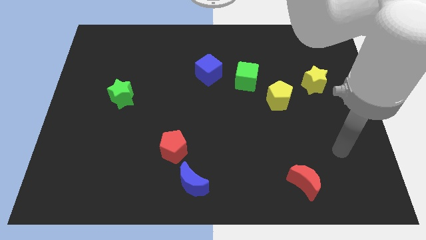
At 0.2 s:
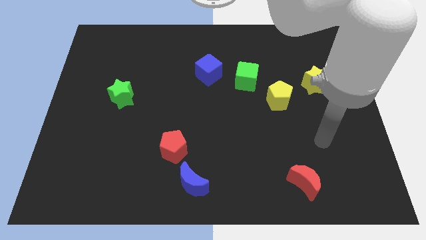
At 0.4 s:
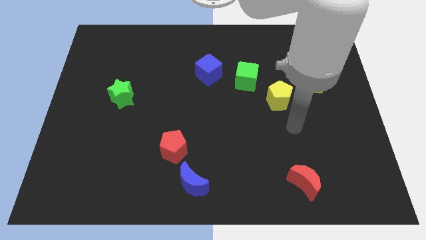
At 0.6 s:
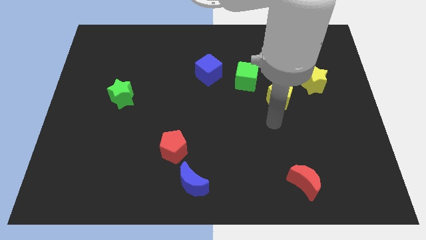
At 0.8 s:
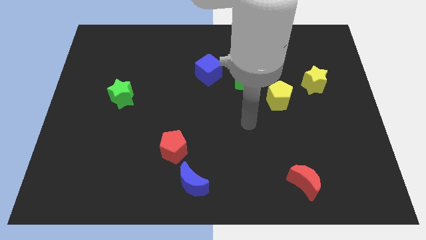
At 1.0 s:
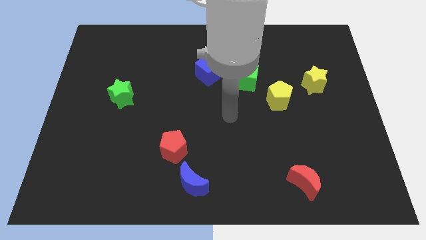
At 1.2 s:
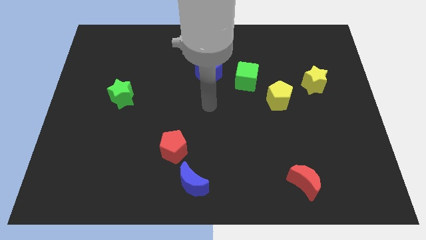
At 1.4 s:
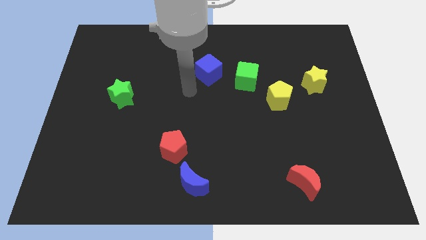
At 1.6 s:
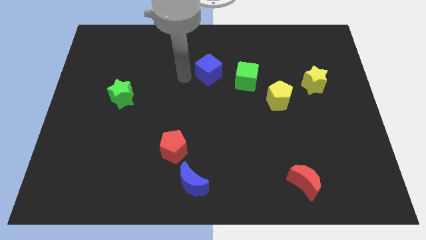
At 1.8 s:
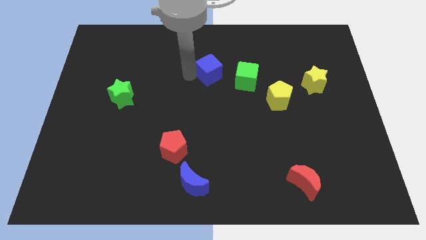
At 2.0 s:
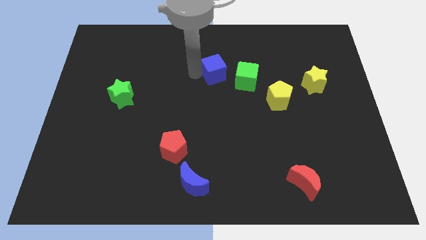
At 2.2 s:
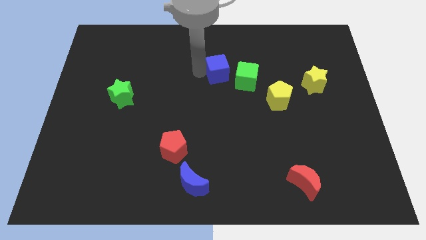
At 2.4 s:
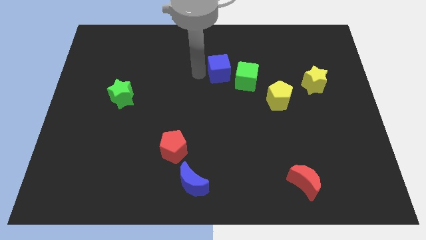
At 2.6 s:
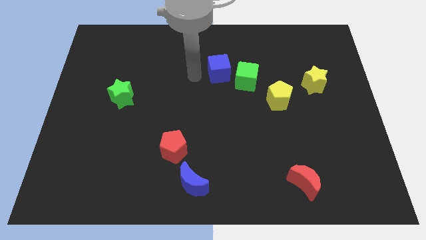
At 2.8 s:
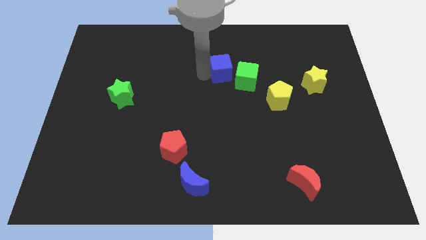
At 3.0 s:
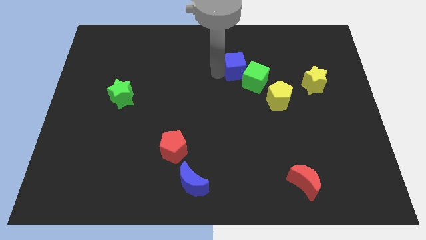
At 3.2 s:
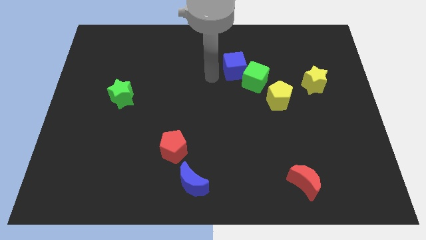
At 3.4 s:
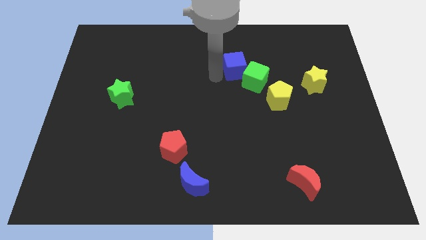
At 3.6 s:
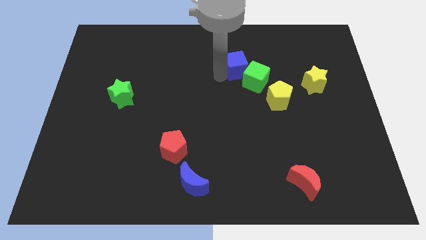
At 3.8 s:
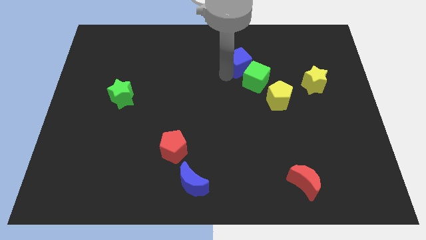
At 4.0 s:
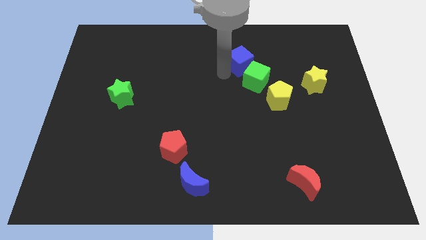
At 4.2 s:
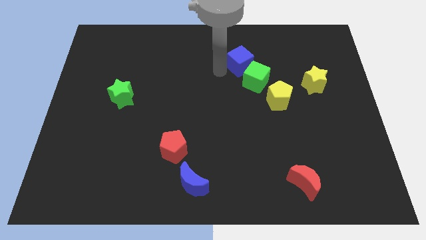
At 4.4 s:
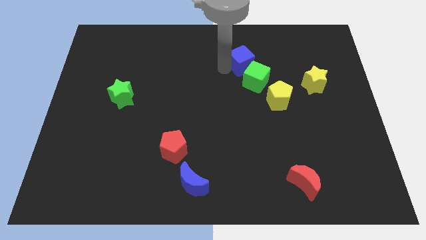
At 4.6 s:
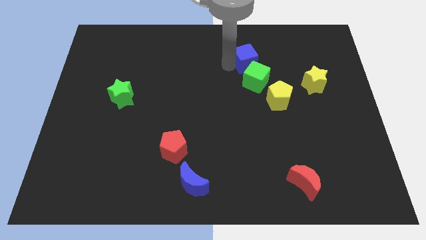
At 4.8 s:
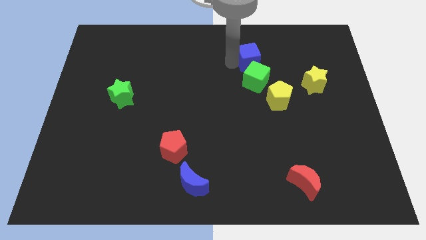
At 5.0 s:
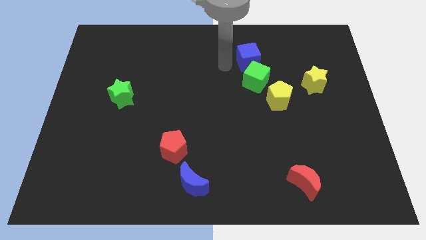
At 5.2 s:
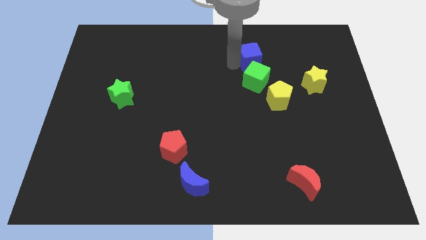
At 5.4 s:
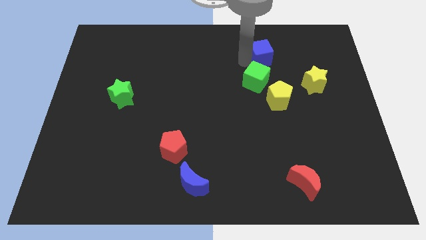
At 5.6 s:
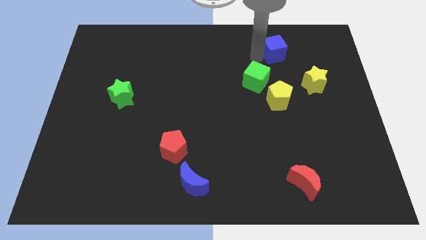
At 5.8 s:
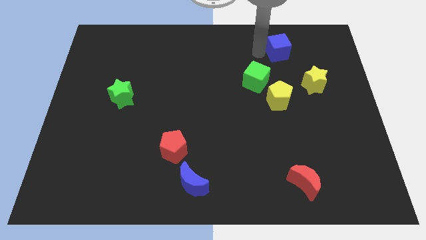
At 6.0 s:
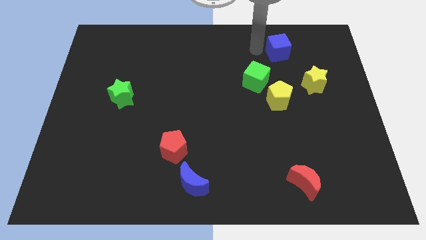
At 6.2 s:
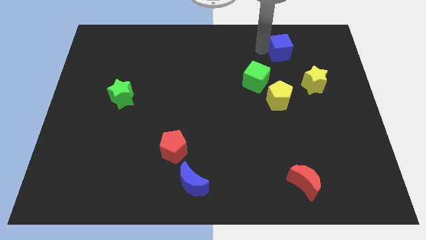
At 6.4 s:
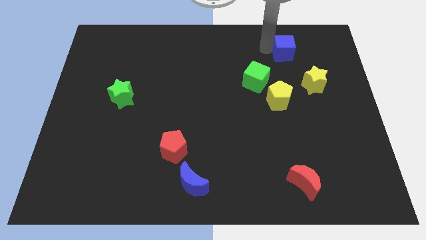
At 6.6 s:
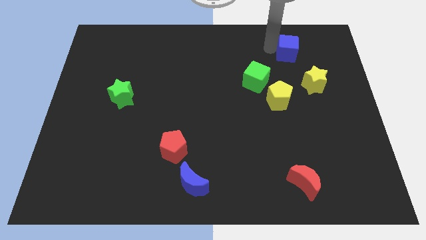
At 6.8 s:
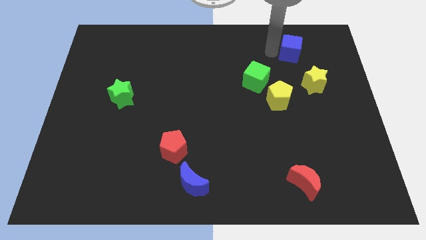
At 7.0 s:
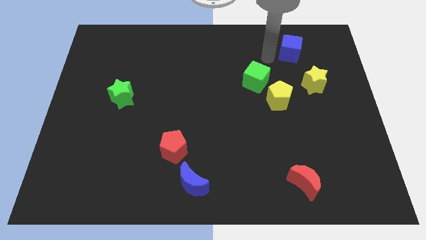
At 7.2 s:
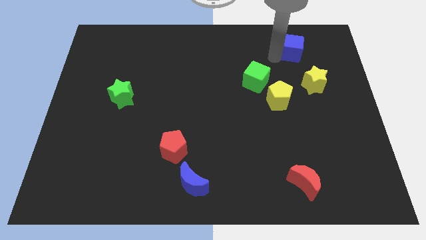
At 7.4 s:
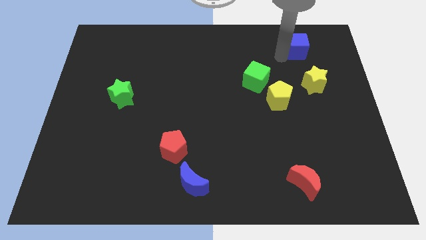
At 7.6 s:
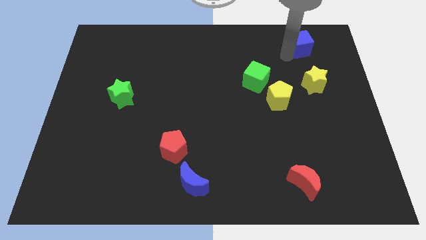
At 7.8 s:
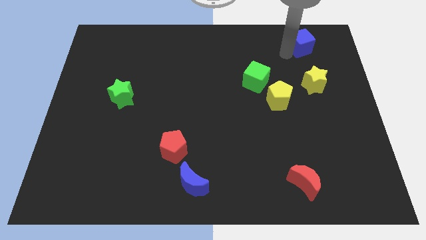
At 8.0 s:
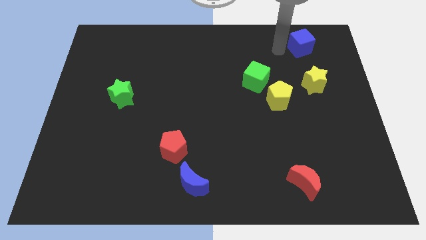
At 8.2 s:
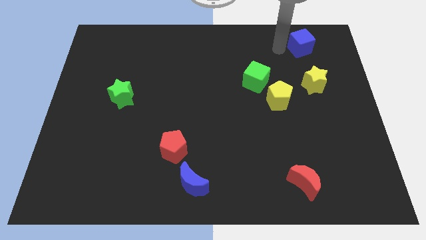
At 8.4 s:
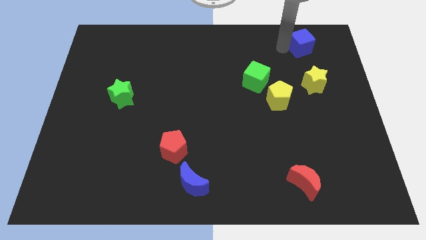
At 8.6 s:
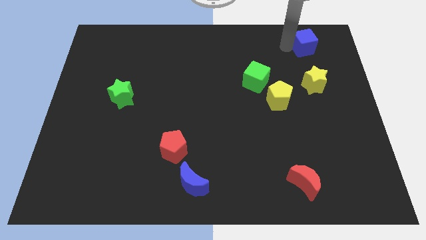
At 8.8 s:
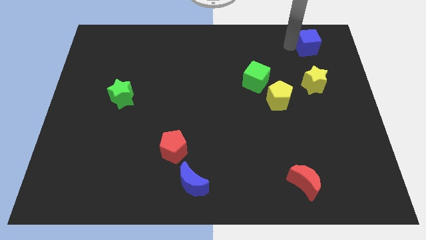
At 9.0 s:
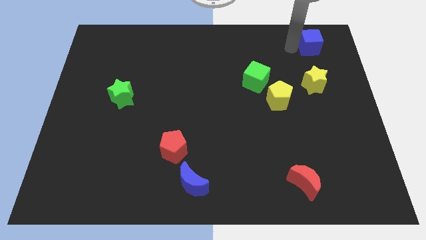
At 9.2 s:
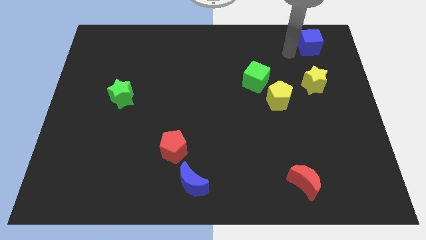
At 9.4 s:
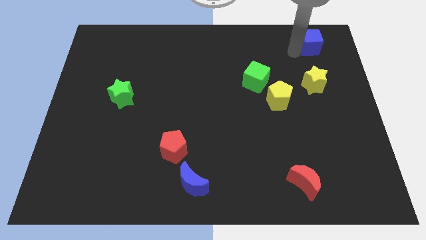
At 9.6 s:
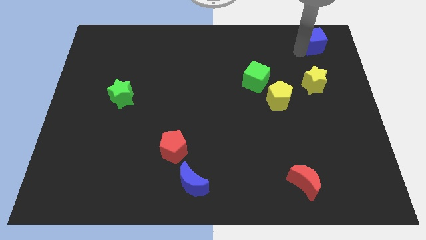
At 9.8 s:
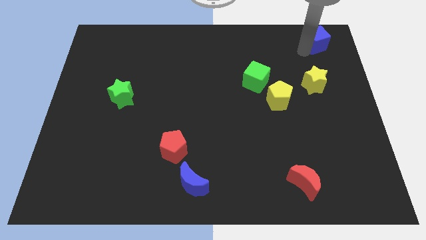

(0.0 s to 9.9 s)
move the blue cube to the top right

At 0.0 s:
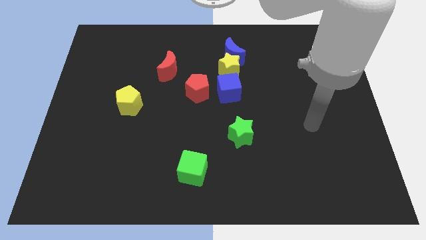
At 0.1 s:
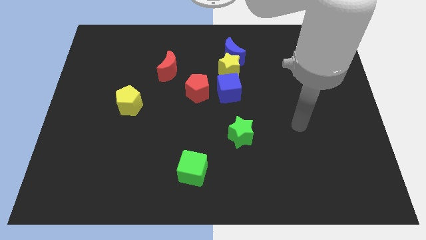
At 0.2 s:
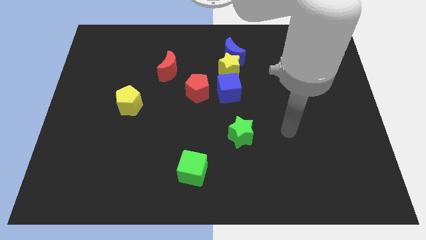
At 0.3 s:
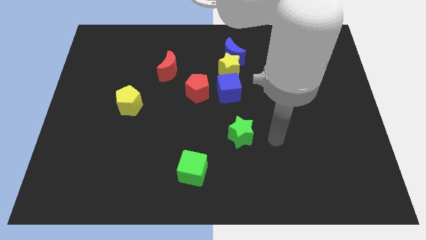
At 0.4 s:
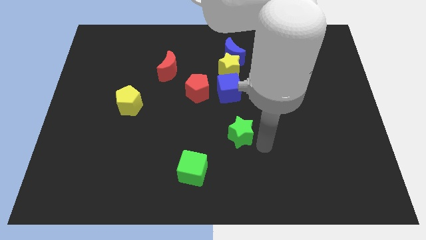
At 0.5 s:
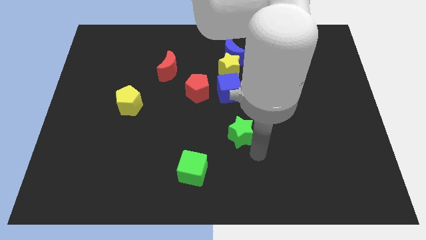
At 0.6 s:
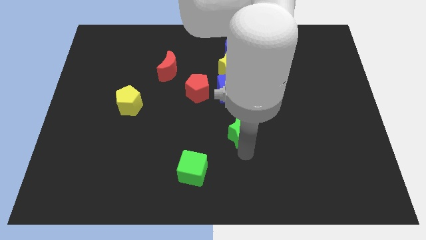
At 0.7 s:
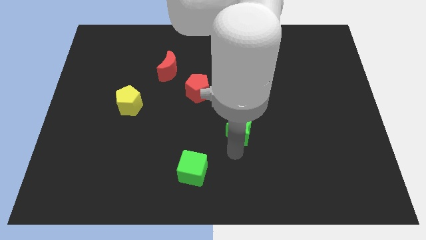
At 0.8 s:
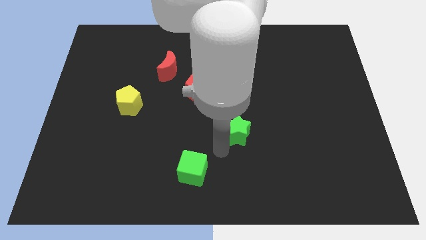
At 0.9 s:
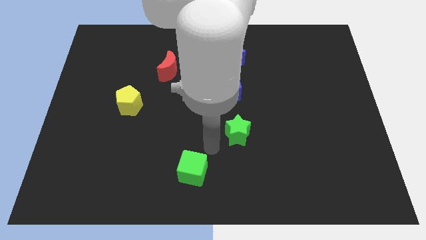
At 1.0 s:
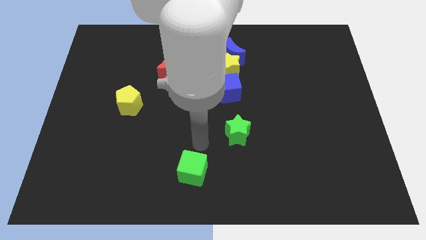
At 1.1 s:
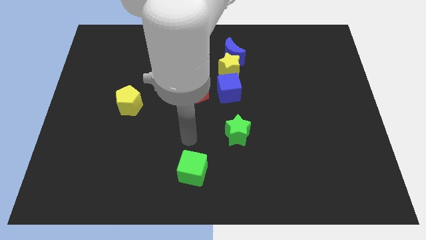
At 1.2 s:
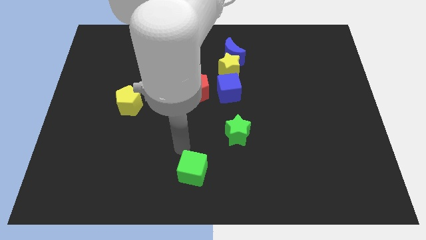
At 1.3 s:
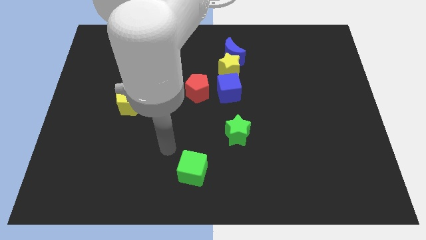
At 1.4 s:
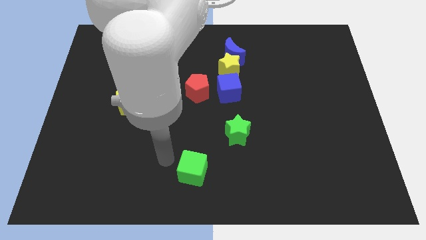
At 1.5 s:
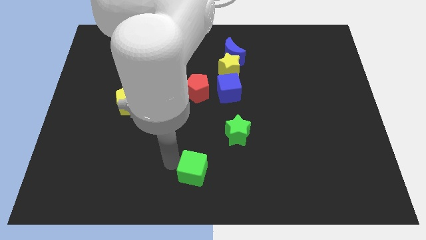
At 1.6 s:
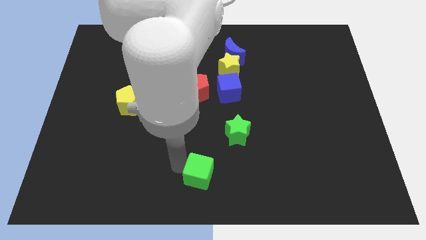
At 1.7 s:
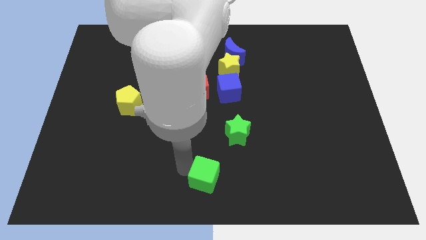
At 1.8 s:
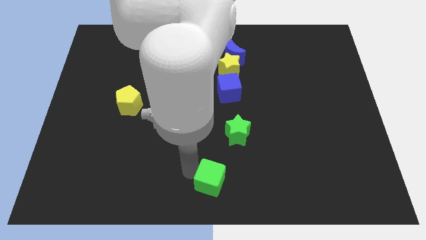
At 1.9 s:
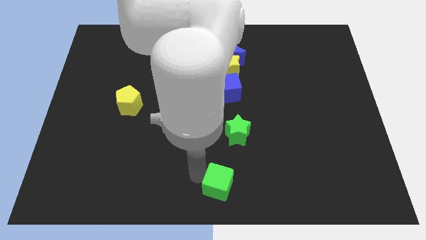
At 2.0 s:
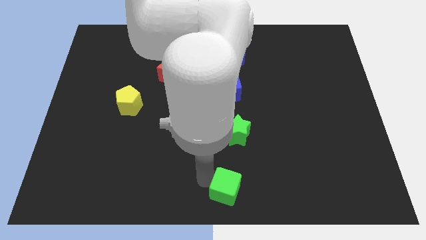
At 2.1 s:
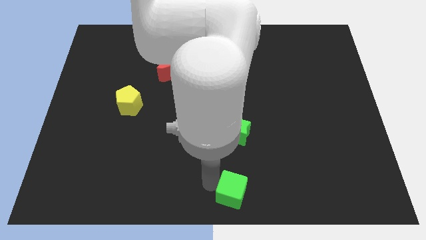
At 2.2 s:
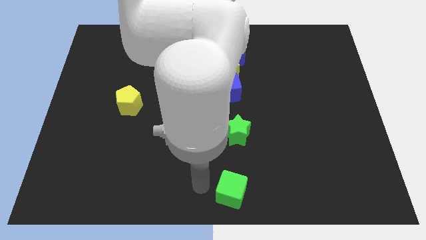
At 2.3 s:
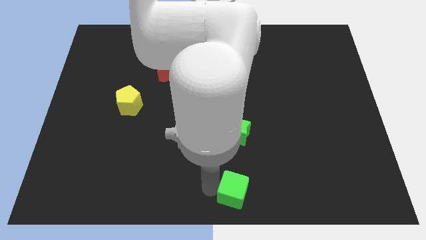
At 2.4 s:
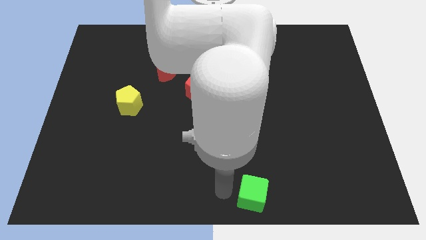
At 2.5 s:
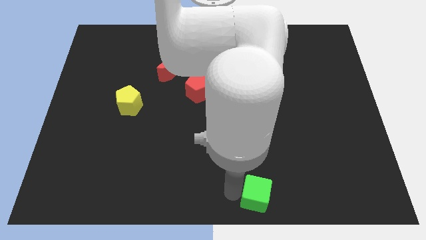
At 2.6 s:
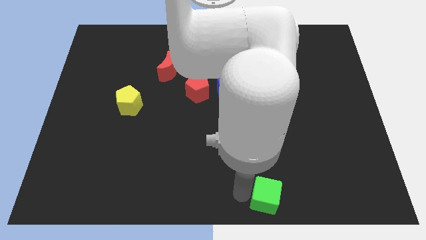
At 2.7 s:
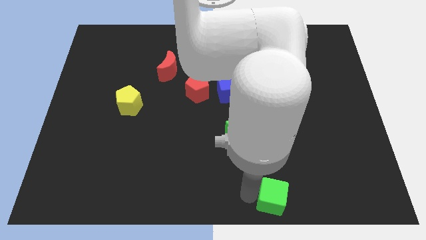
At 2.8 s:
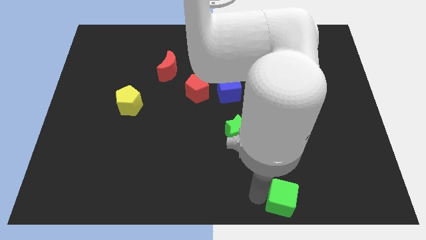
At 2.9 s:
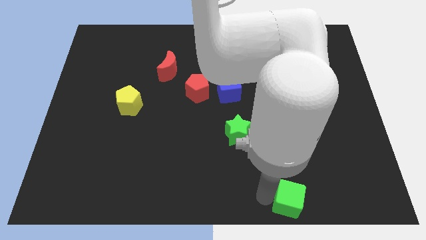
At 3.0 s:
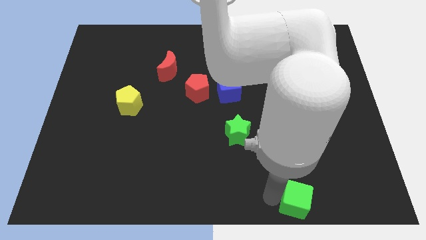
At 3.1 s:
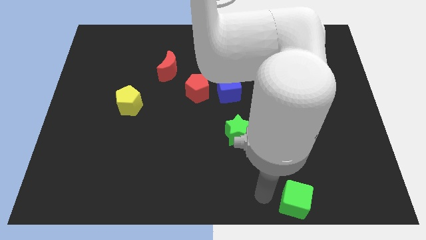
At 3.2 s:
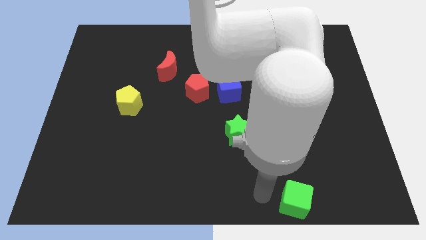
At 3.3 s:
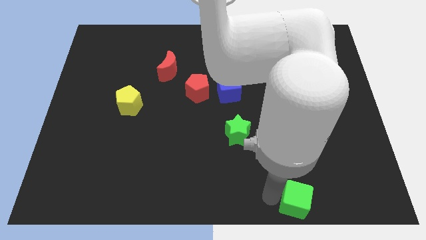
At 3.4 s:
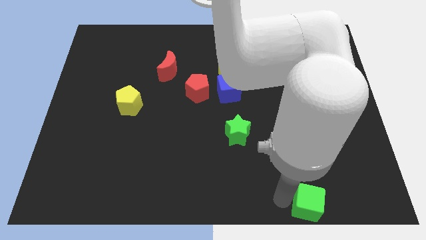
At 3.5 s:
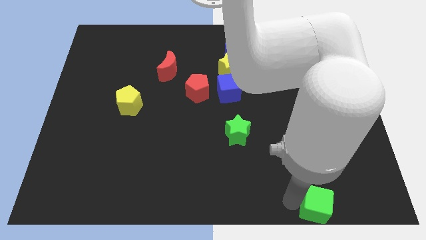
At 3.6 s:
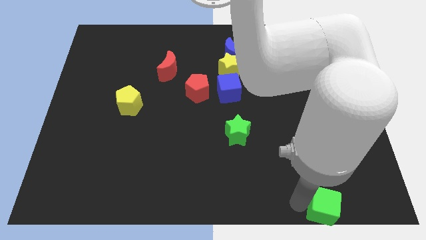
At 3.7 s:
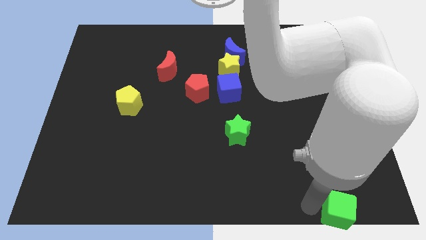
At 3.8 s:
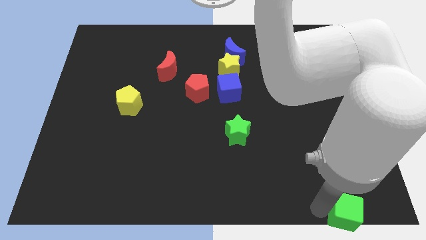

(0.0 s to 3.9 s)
slide the green cube to the bottom right corner
